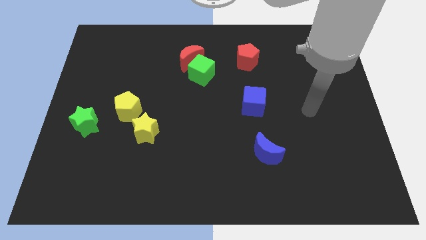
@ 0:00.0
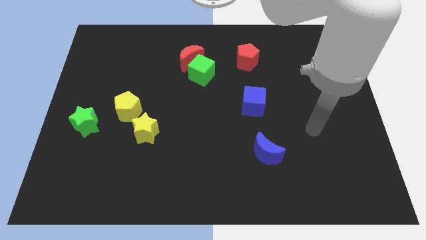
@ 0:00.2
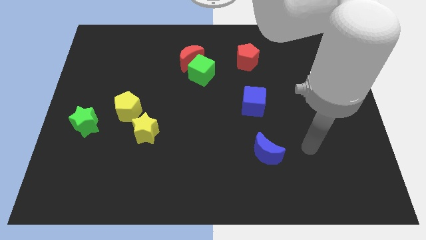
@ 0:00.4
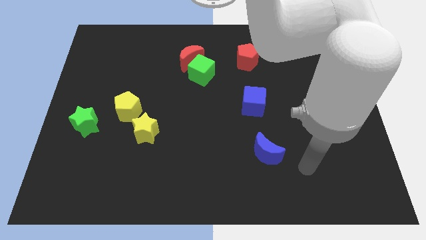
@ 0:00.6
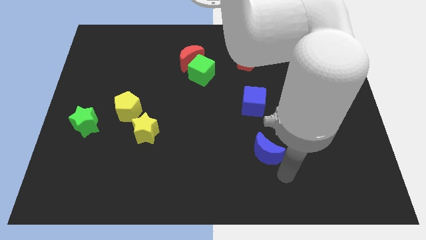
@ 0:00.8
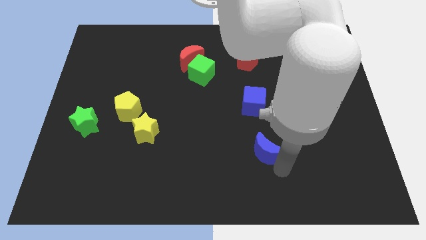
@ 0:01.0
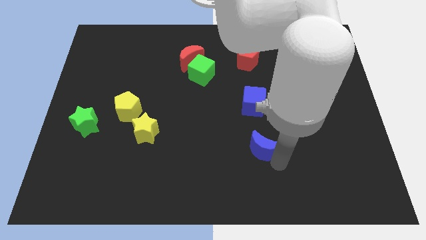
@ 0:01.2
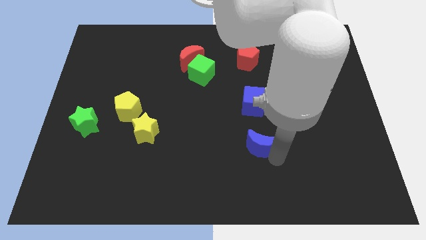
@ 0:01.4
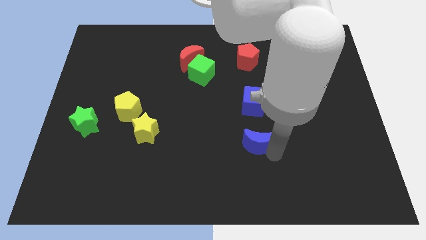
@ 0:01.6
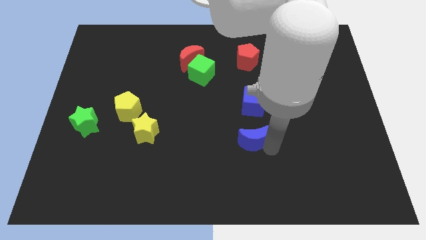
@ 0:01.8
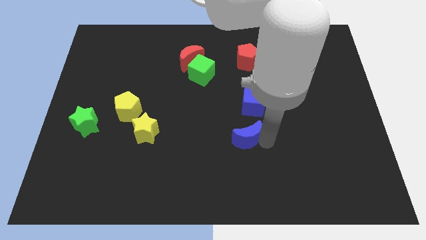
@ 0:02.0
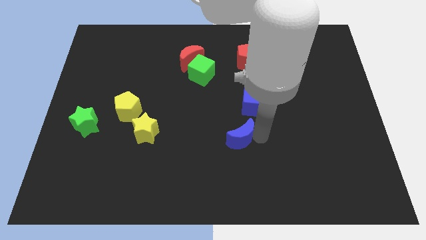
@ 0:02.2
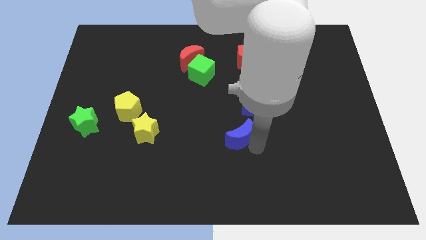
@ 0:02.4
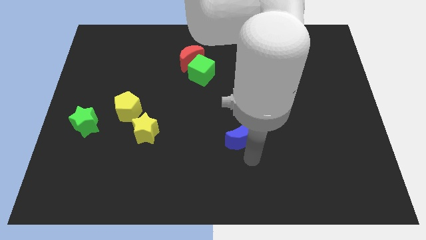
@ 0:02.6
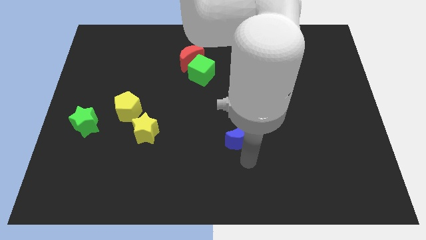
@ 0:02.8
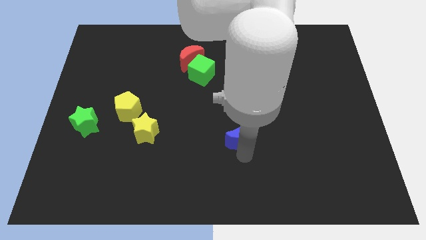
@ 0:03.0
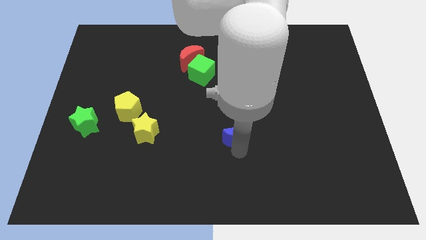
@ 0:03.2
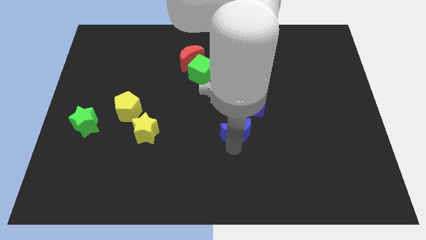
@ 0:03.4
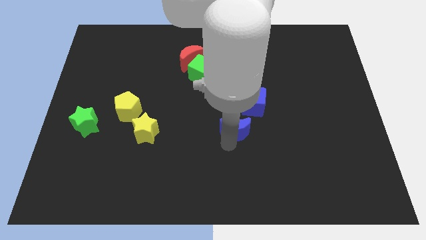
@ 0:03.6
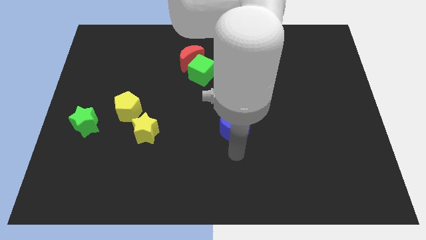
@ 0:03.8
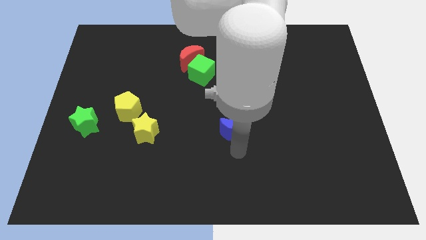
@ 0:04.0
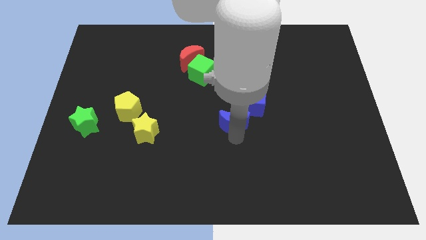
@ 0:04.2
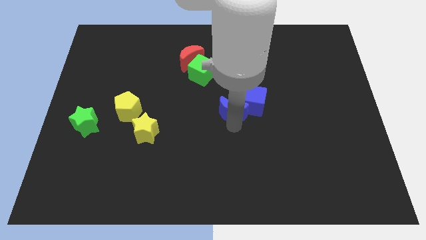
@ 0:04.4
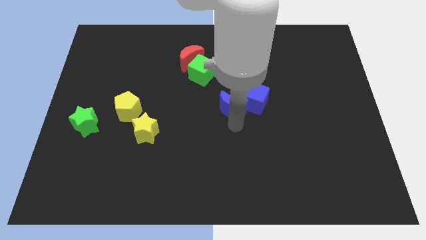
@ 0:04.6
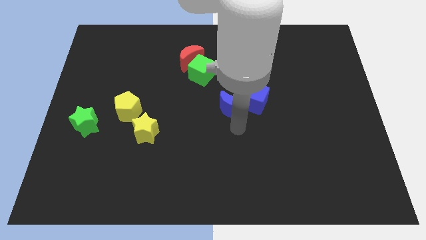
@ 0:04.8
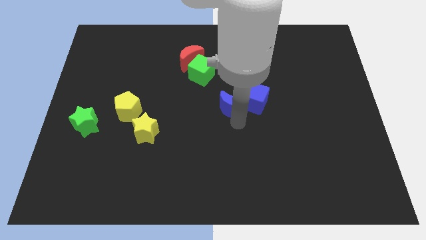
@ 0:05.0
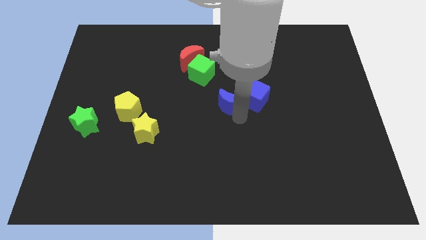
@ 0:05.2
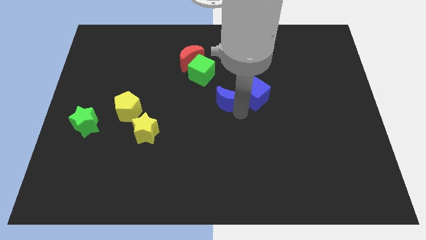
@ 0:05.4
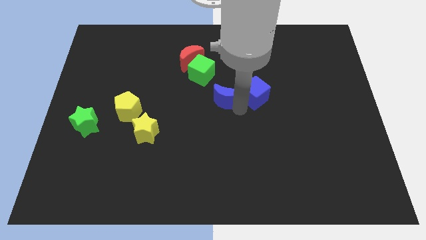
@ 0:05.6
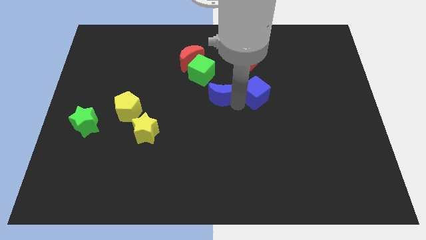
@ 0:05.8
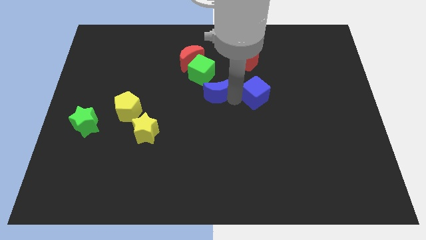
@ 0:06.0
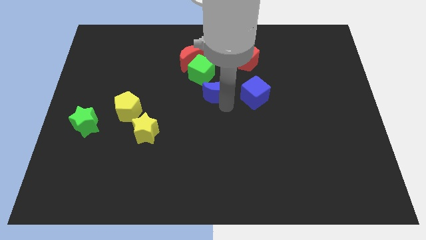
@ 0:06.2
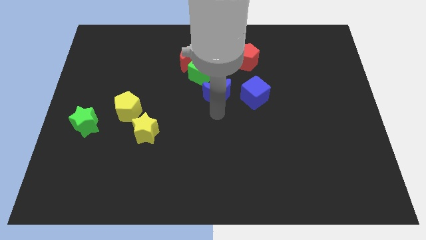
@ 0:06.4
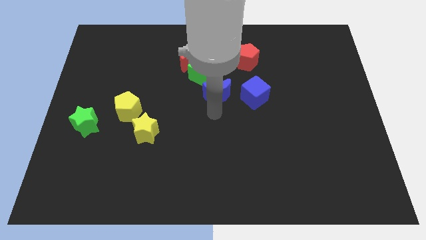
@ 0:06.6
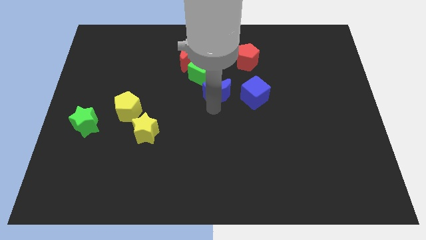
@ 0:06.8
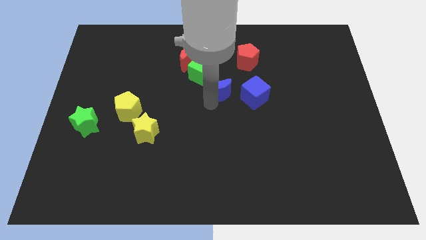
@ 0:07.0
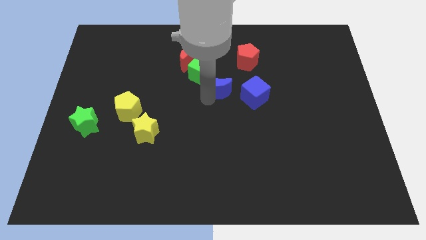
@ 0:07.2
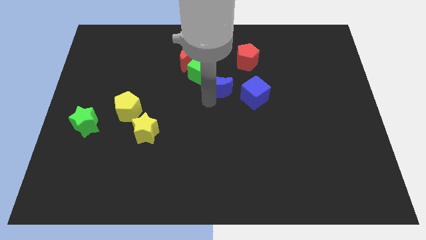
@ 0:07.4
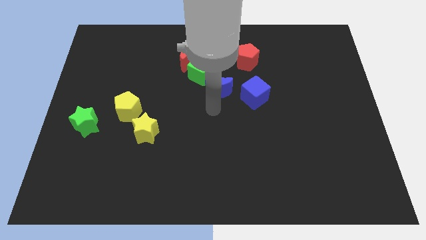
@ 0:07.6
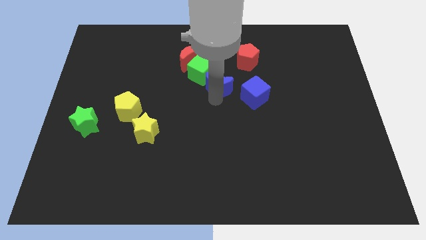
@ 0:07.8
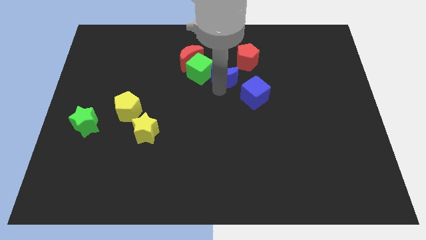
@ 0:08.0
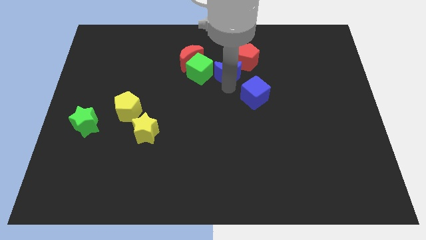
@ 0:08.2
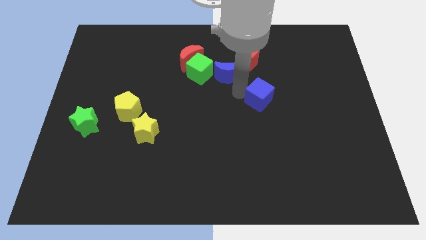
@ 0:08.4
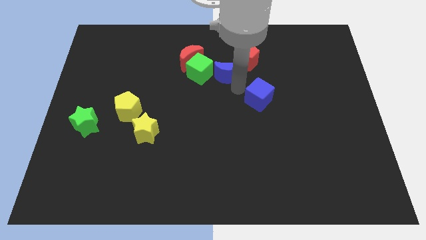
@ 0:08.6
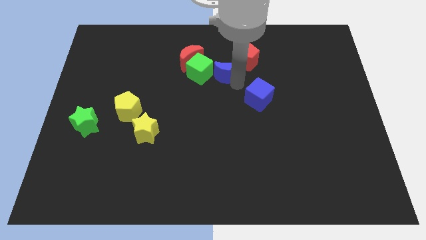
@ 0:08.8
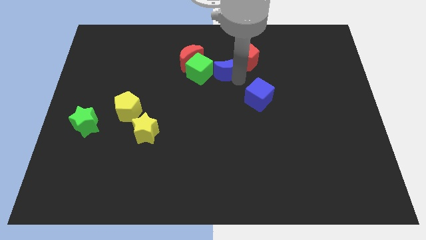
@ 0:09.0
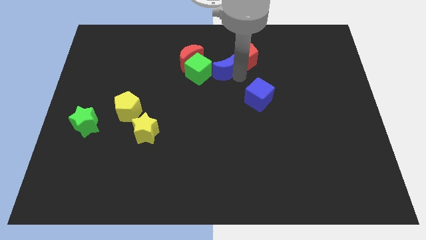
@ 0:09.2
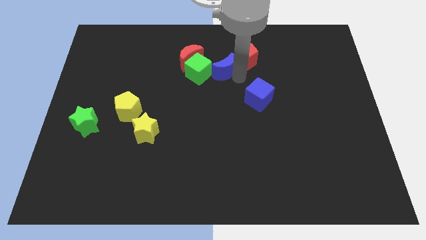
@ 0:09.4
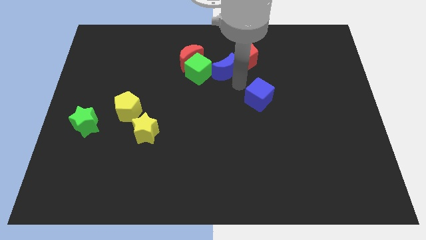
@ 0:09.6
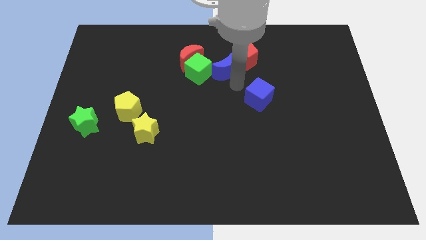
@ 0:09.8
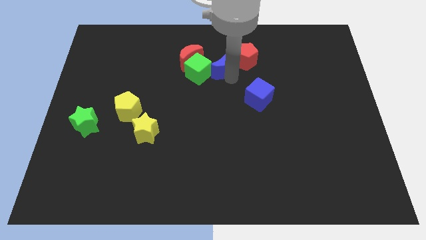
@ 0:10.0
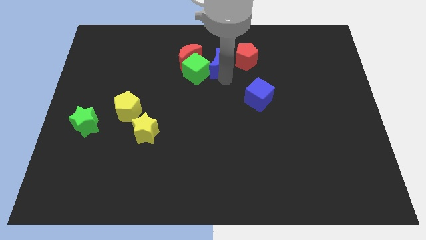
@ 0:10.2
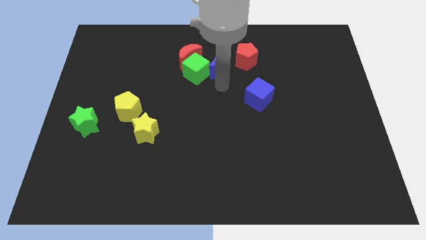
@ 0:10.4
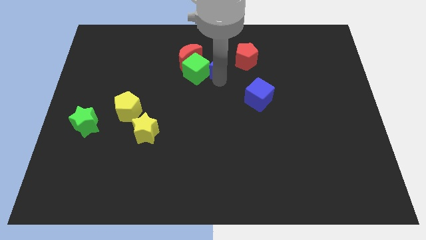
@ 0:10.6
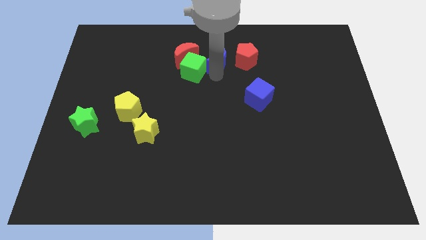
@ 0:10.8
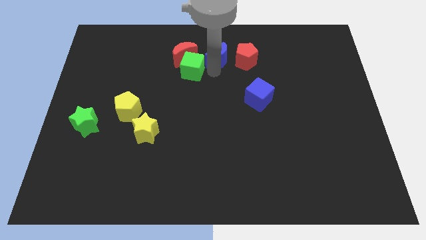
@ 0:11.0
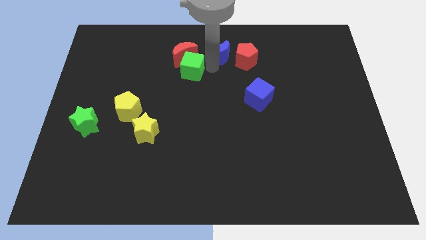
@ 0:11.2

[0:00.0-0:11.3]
slide the blue moon to the top
